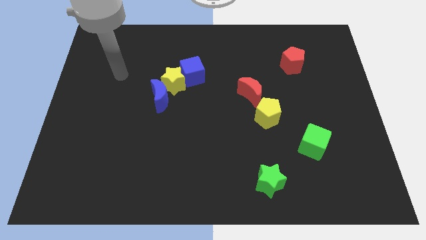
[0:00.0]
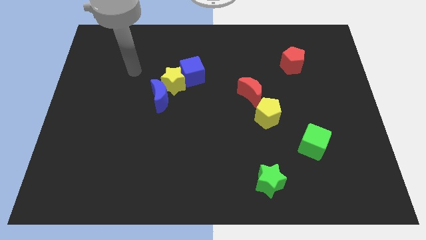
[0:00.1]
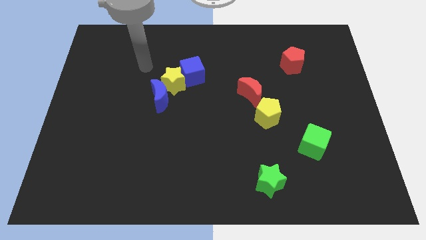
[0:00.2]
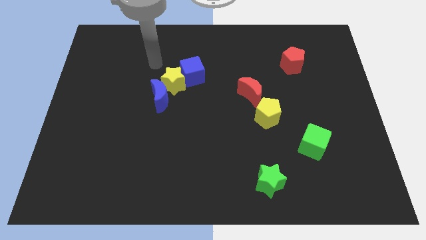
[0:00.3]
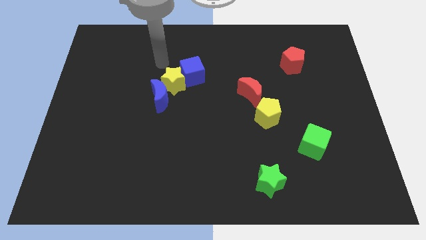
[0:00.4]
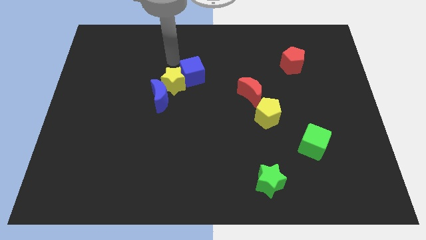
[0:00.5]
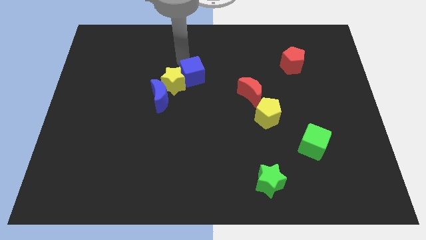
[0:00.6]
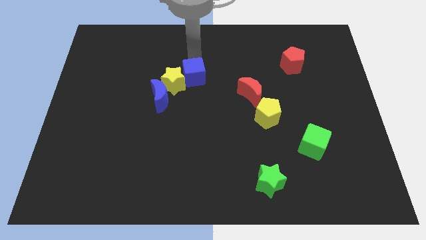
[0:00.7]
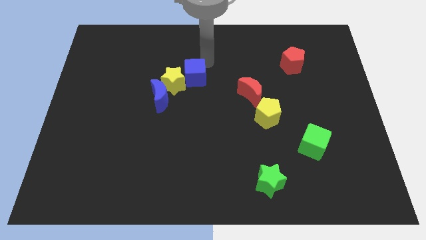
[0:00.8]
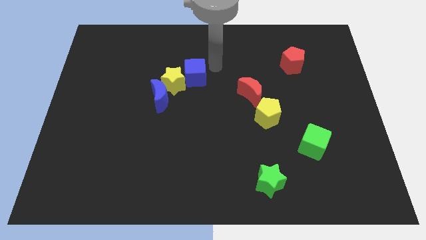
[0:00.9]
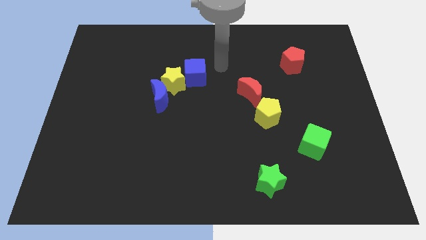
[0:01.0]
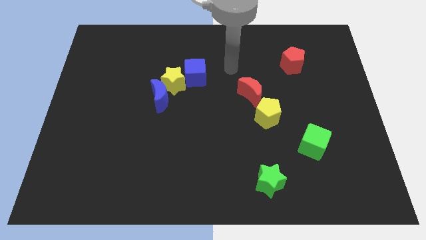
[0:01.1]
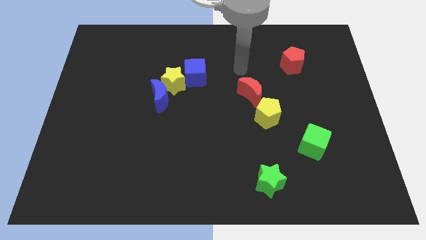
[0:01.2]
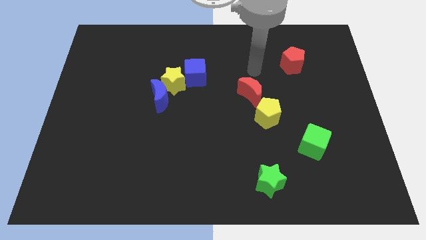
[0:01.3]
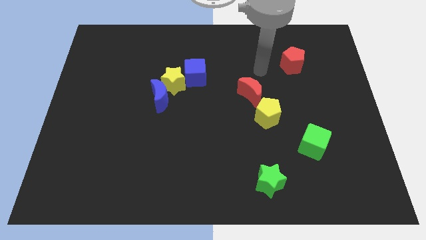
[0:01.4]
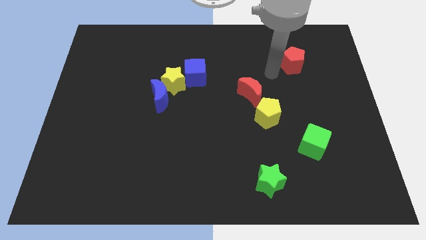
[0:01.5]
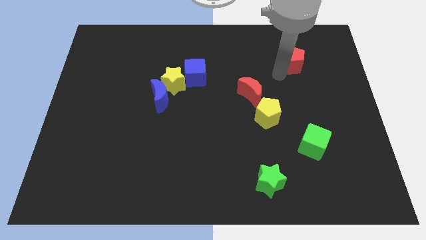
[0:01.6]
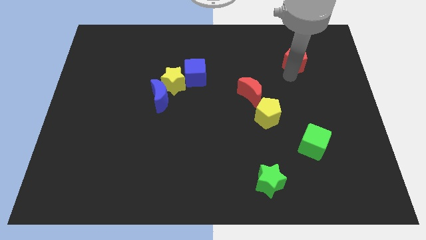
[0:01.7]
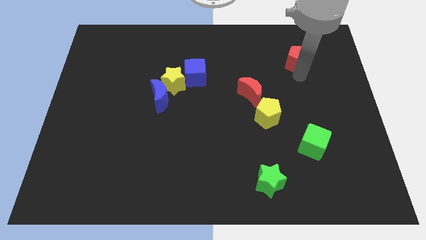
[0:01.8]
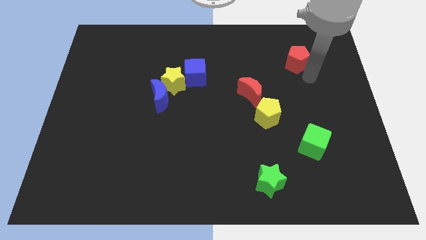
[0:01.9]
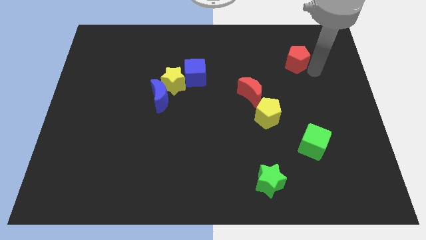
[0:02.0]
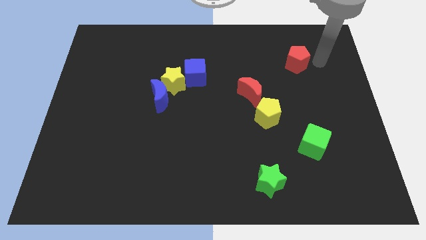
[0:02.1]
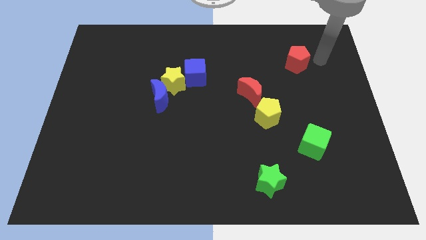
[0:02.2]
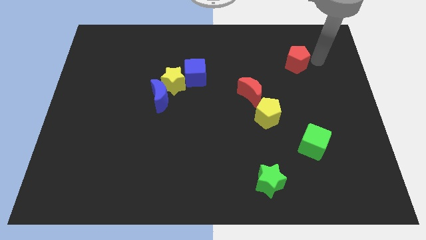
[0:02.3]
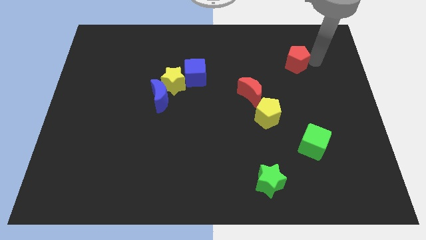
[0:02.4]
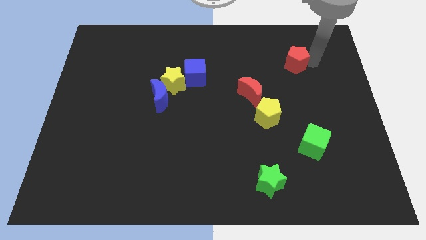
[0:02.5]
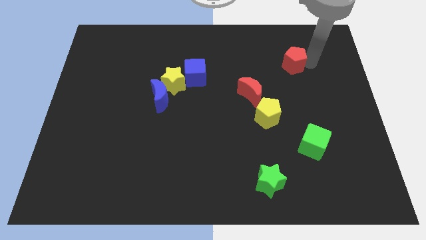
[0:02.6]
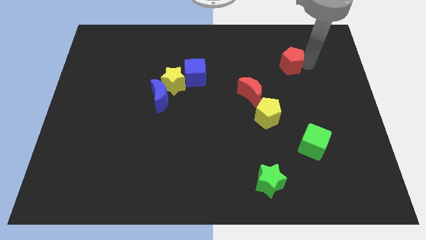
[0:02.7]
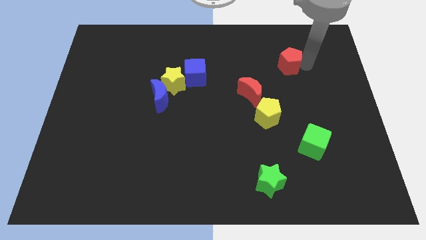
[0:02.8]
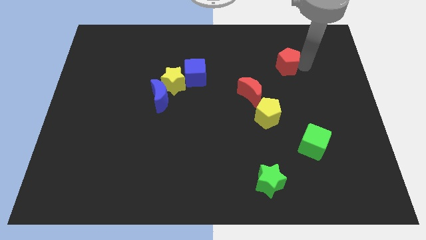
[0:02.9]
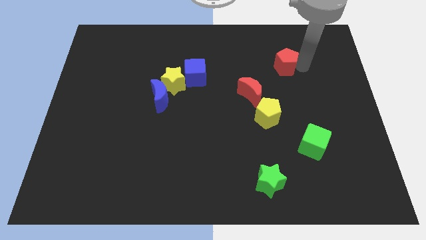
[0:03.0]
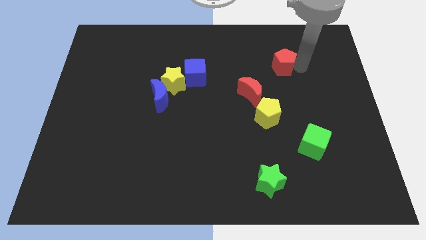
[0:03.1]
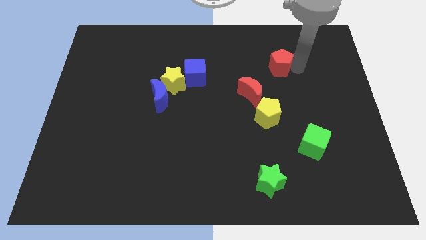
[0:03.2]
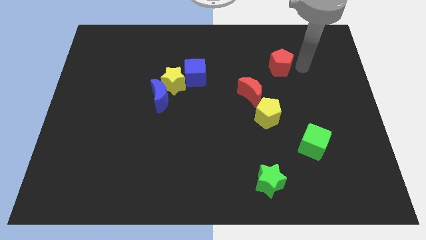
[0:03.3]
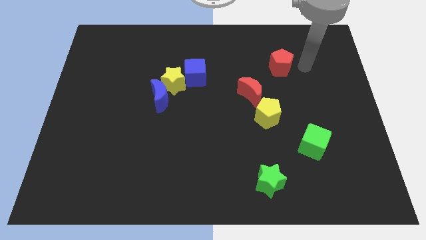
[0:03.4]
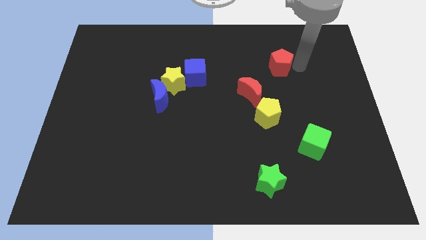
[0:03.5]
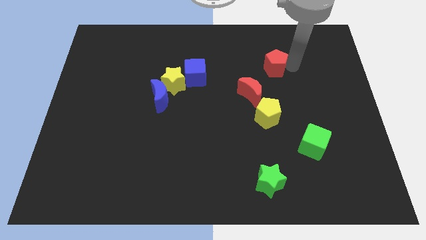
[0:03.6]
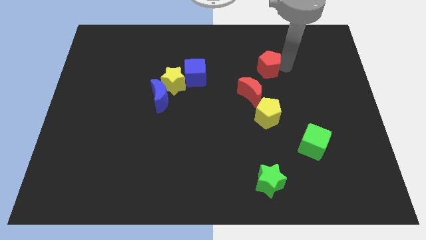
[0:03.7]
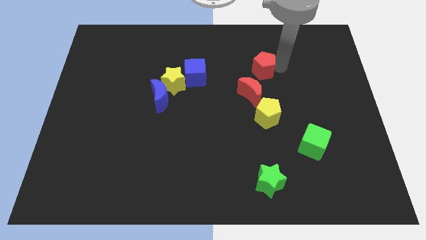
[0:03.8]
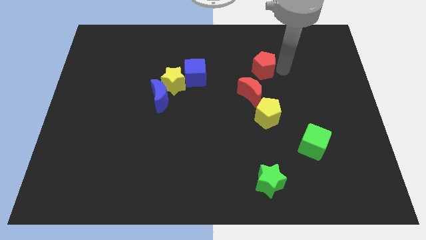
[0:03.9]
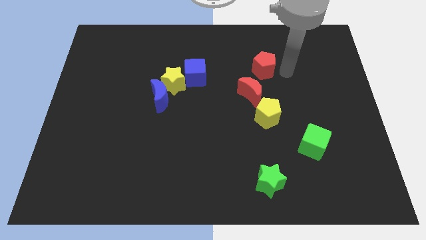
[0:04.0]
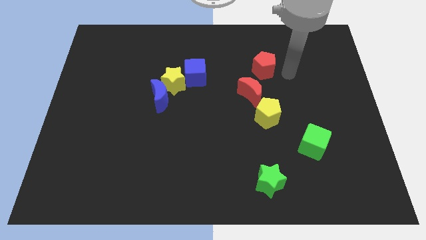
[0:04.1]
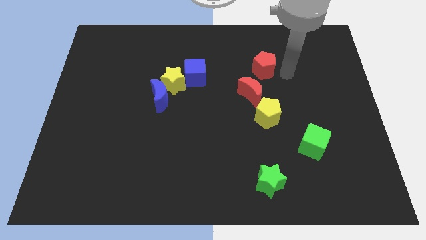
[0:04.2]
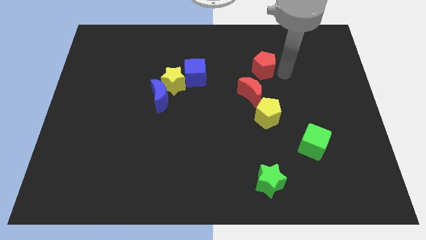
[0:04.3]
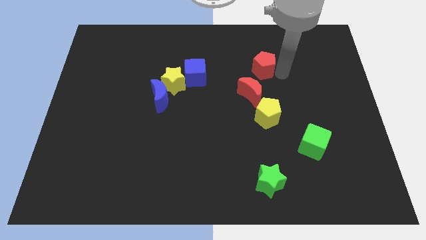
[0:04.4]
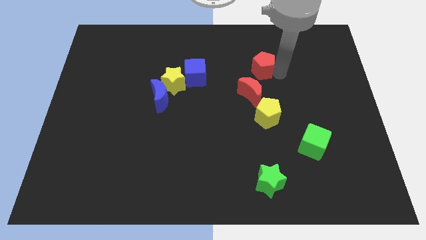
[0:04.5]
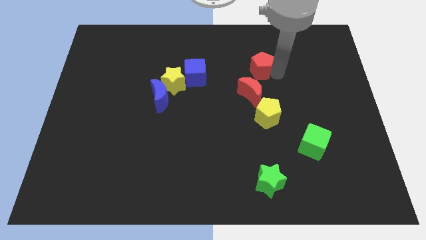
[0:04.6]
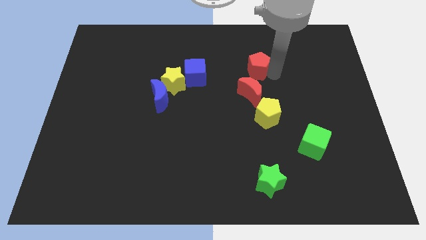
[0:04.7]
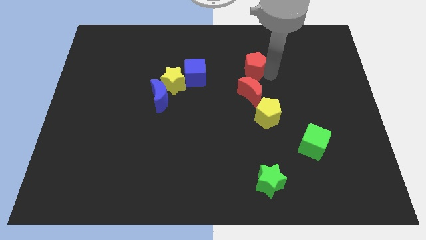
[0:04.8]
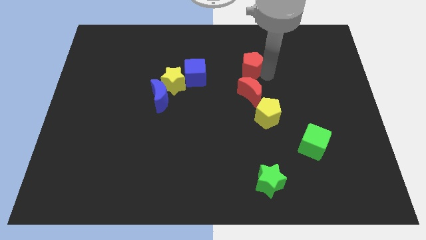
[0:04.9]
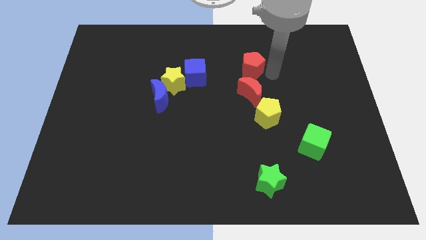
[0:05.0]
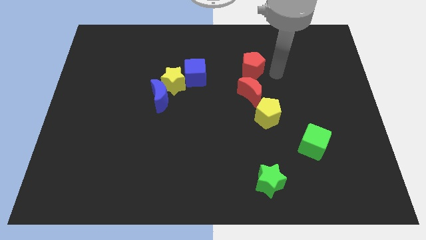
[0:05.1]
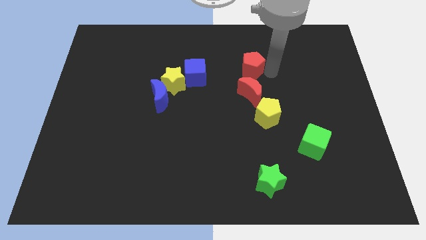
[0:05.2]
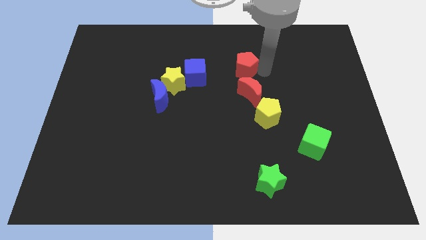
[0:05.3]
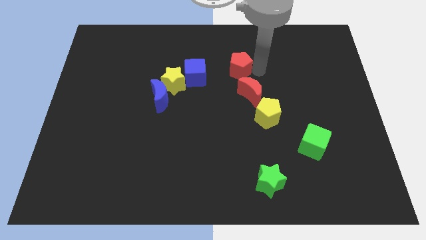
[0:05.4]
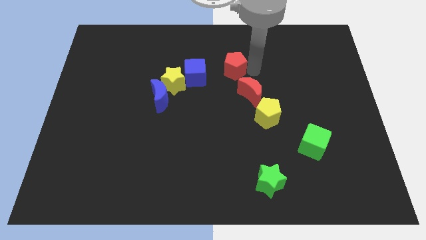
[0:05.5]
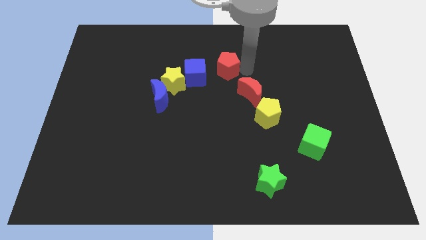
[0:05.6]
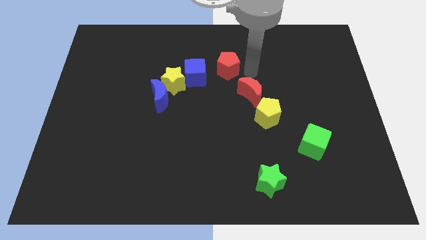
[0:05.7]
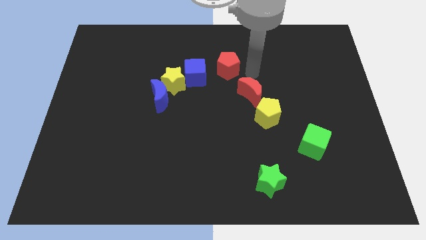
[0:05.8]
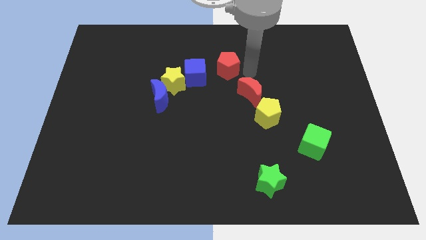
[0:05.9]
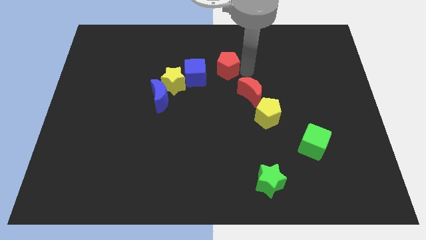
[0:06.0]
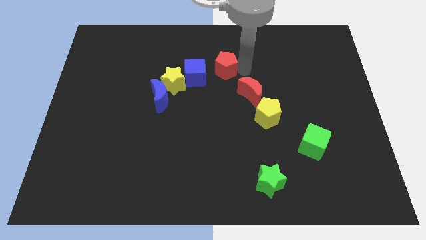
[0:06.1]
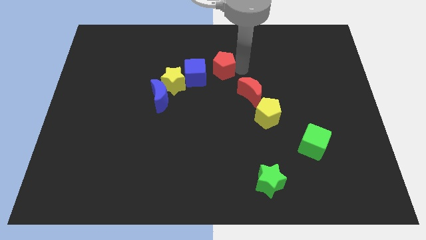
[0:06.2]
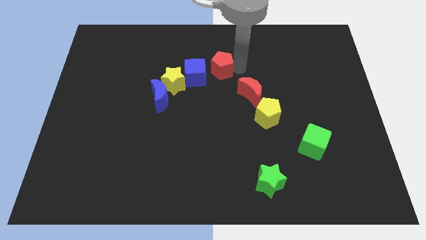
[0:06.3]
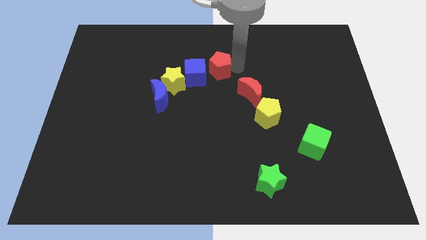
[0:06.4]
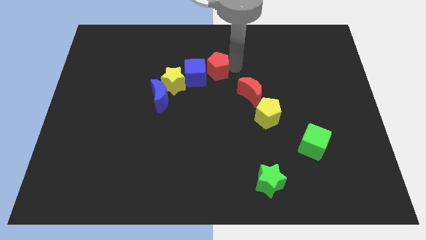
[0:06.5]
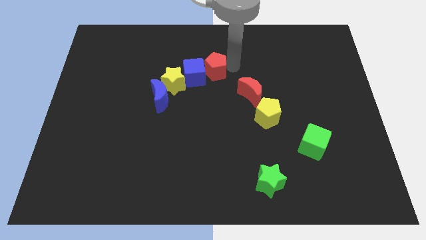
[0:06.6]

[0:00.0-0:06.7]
slide the red pentagon left

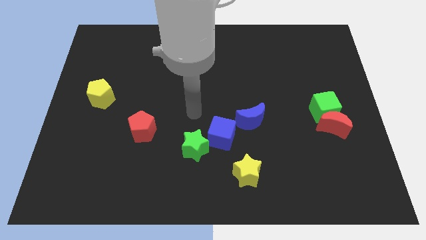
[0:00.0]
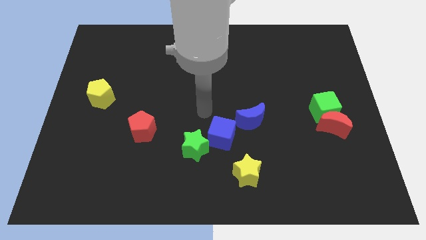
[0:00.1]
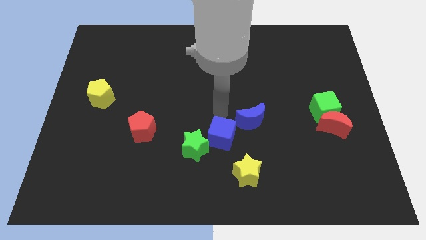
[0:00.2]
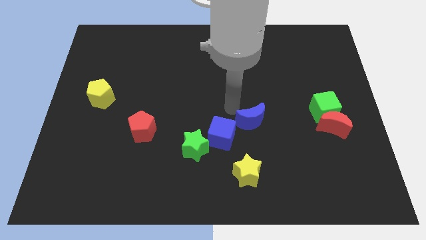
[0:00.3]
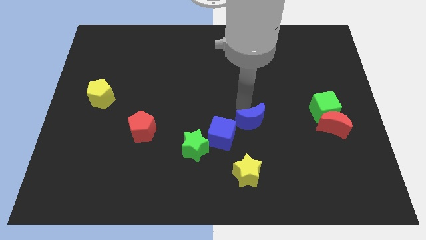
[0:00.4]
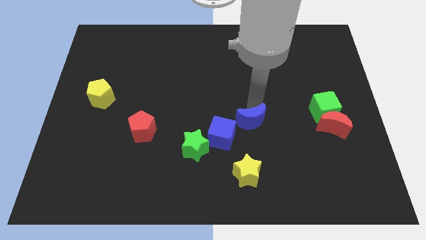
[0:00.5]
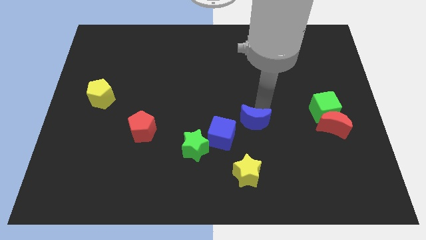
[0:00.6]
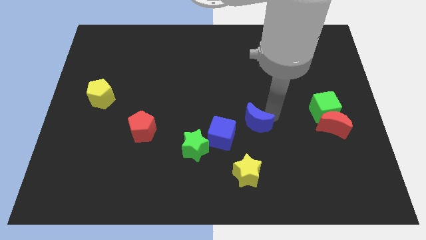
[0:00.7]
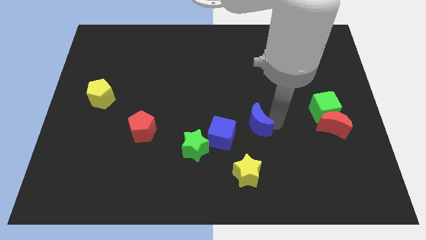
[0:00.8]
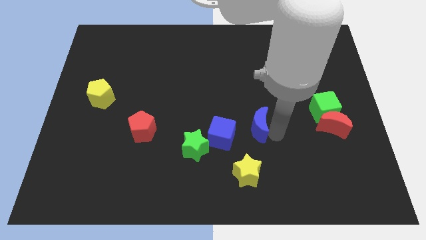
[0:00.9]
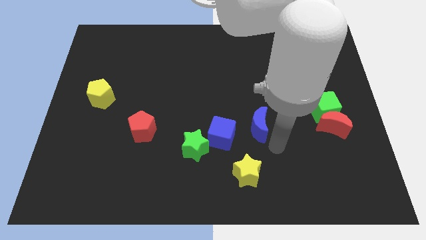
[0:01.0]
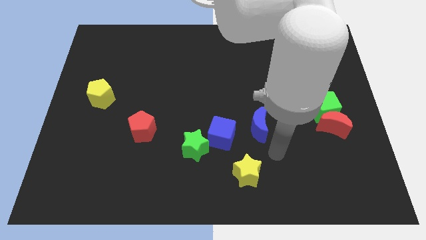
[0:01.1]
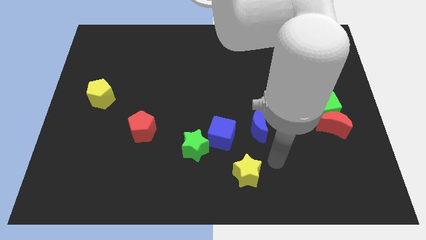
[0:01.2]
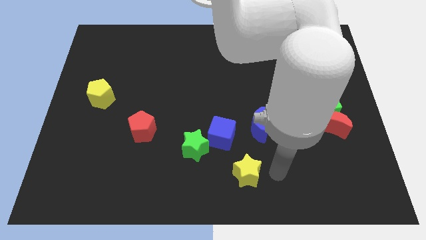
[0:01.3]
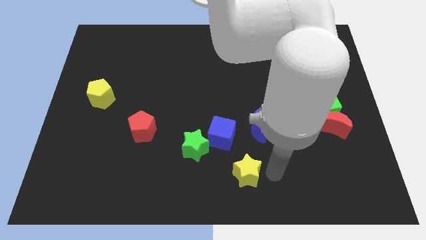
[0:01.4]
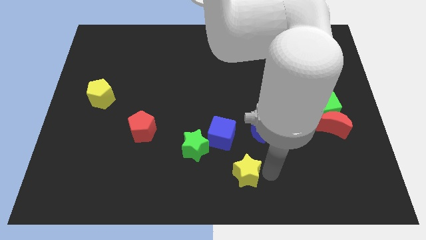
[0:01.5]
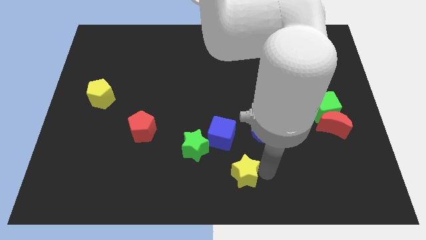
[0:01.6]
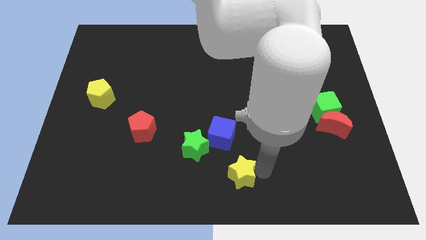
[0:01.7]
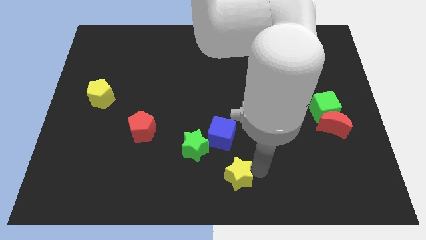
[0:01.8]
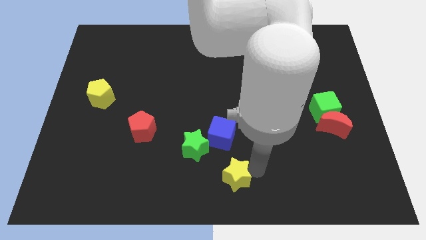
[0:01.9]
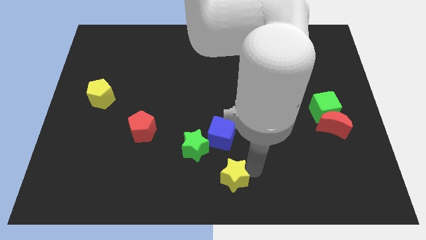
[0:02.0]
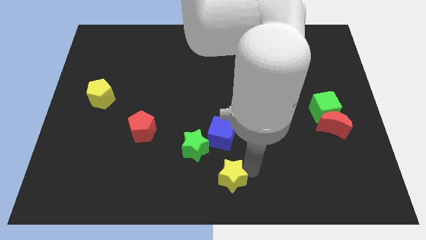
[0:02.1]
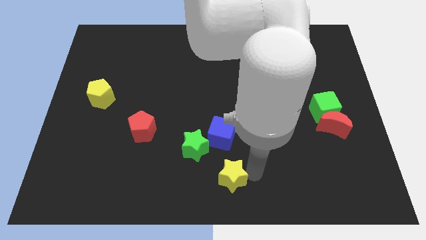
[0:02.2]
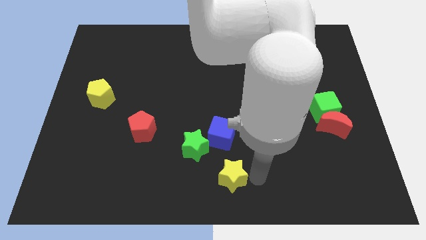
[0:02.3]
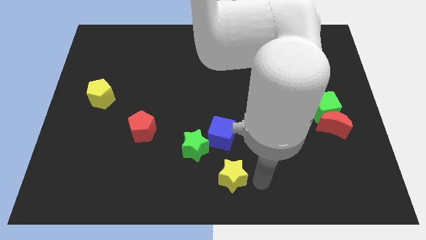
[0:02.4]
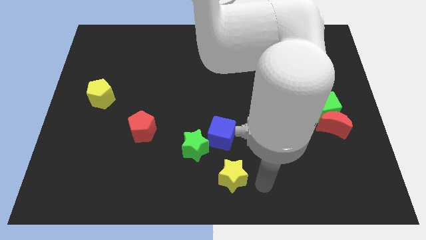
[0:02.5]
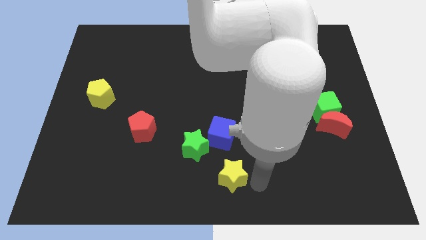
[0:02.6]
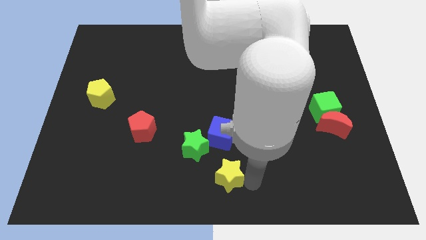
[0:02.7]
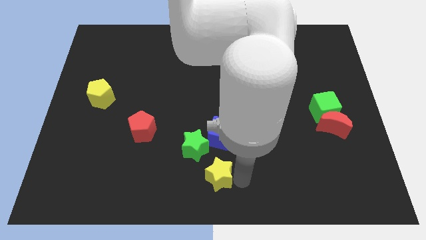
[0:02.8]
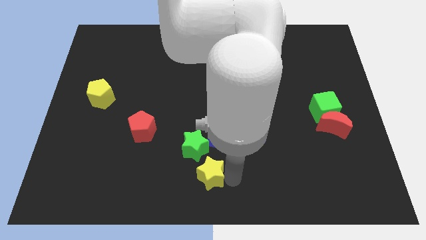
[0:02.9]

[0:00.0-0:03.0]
slide the yellow star left somewhat
